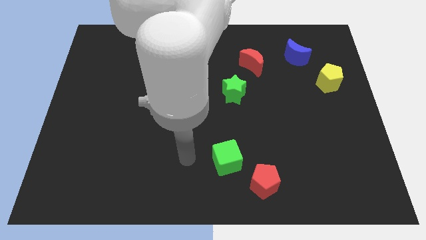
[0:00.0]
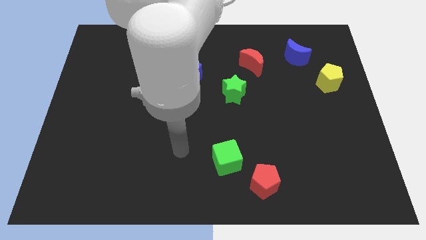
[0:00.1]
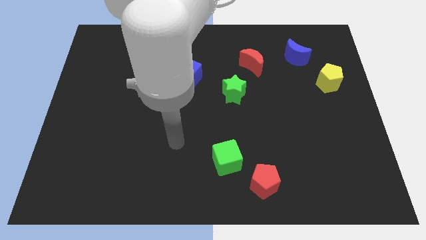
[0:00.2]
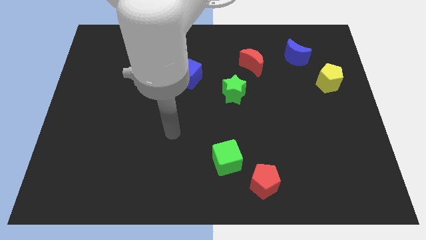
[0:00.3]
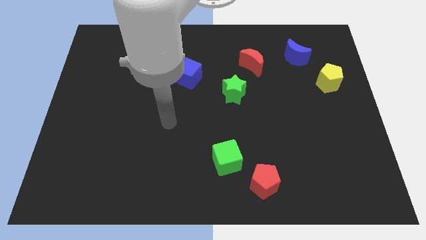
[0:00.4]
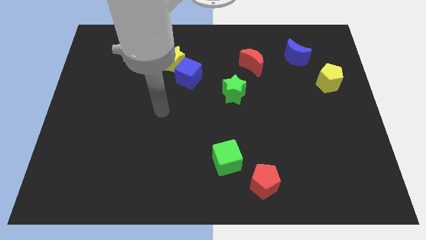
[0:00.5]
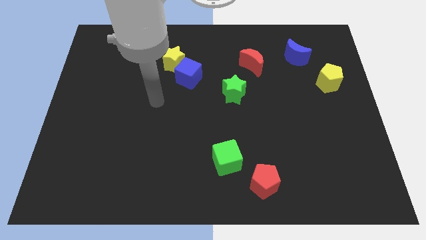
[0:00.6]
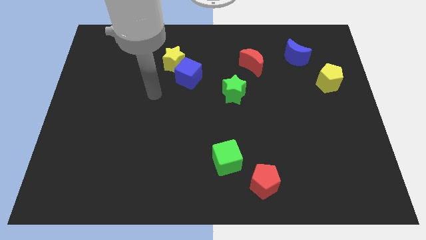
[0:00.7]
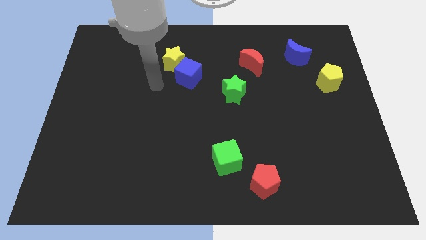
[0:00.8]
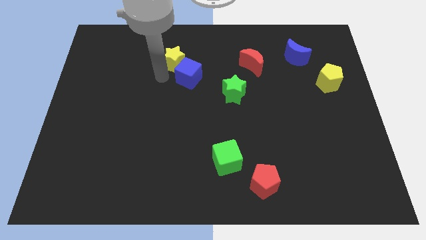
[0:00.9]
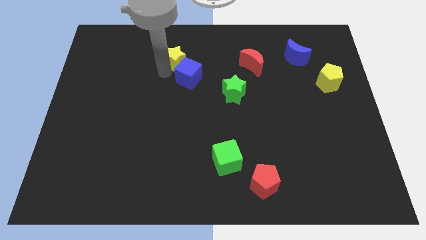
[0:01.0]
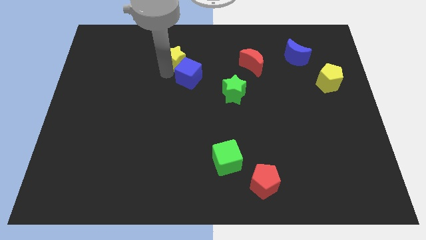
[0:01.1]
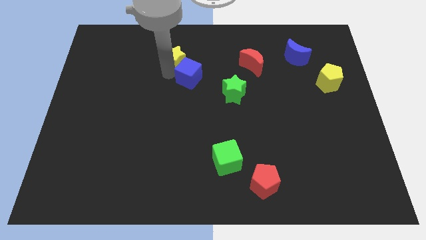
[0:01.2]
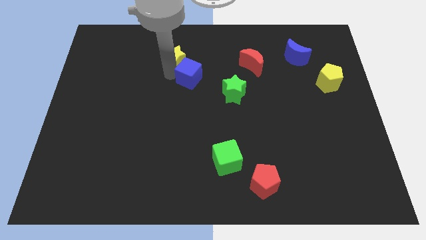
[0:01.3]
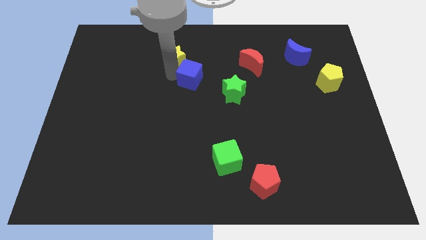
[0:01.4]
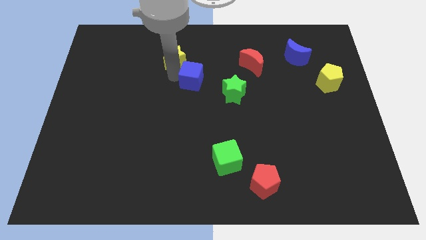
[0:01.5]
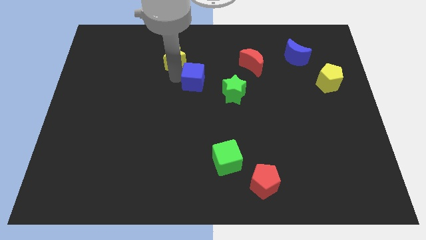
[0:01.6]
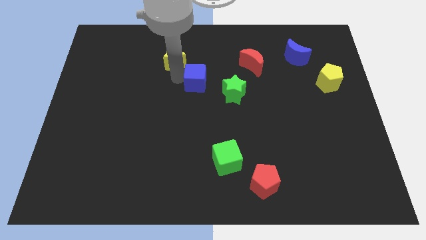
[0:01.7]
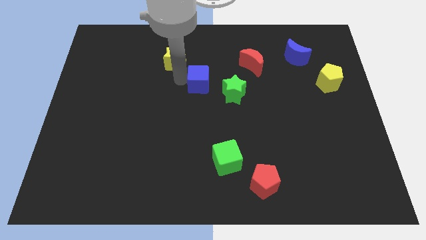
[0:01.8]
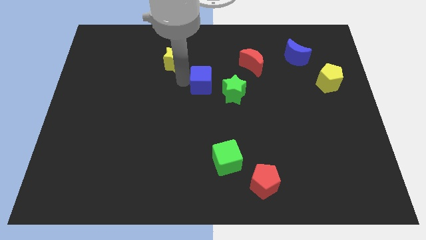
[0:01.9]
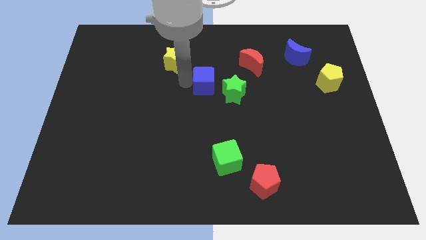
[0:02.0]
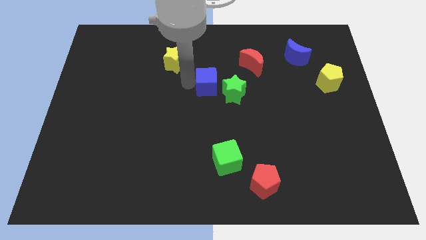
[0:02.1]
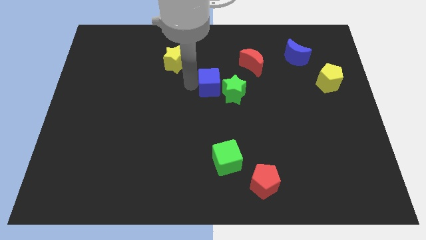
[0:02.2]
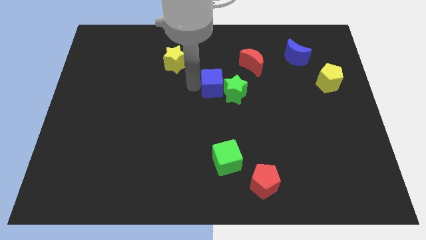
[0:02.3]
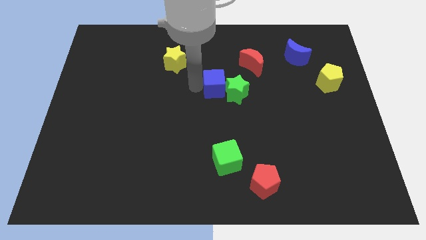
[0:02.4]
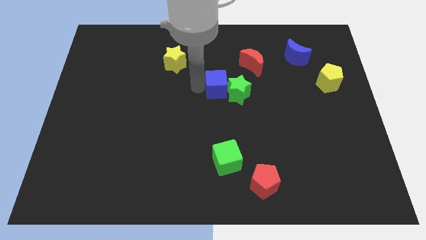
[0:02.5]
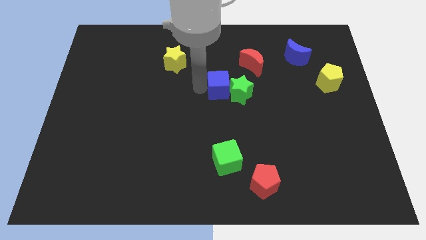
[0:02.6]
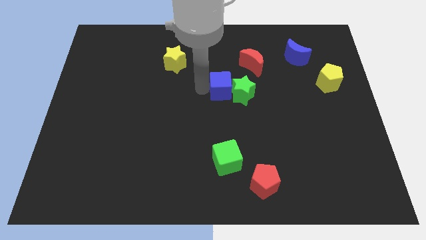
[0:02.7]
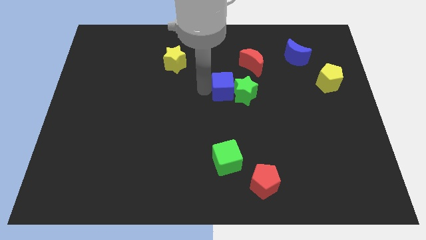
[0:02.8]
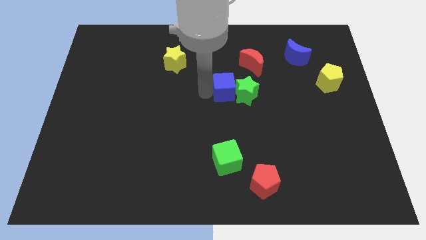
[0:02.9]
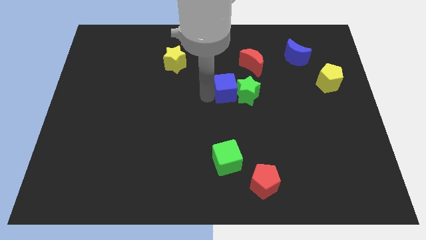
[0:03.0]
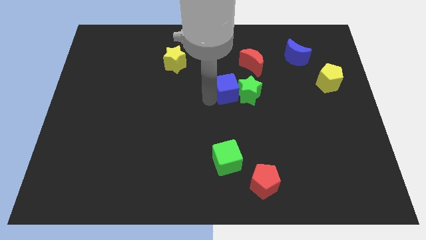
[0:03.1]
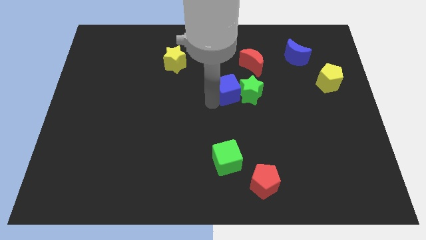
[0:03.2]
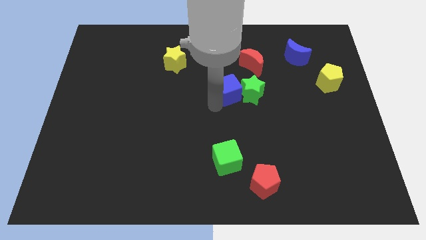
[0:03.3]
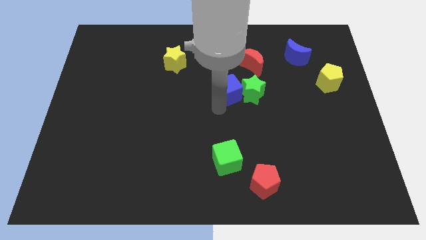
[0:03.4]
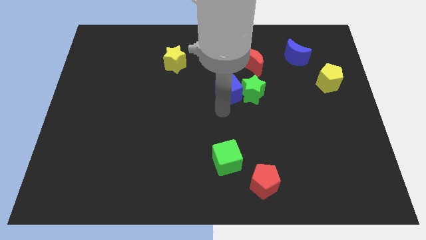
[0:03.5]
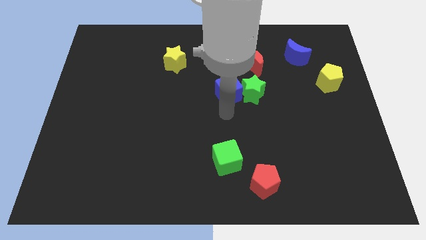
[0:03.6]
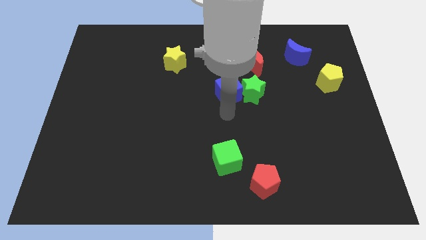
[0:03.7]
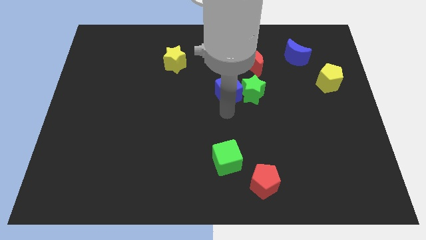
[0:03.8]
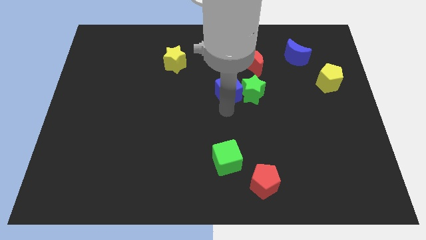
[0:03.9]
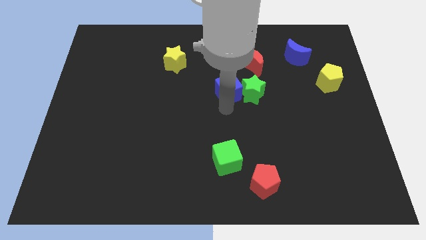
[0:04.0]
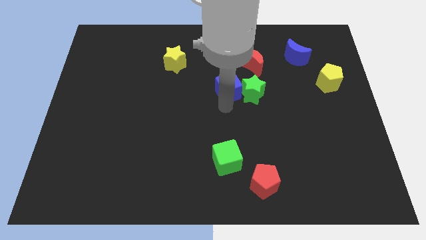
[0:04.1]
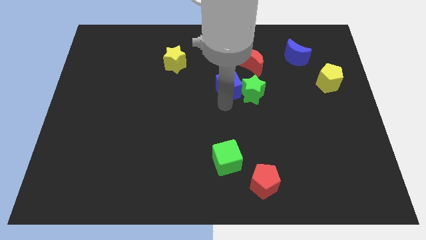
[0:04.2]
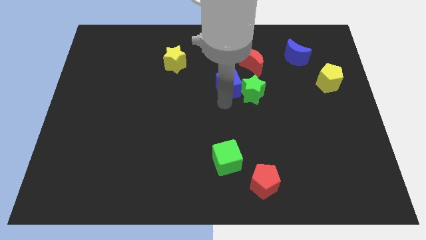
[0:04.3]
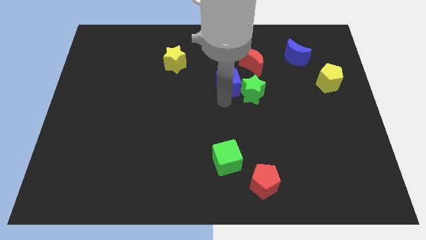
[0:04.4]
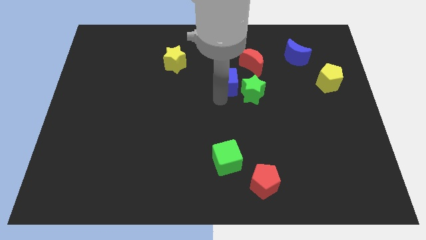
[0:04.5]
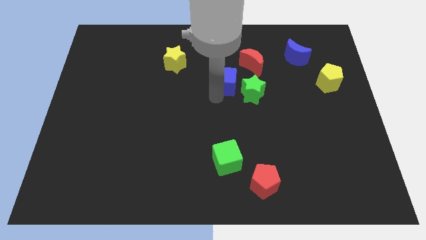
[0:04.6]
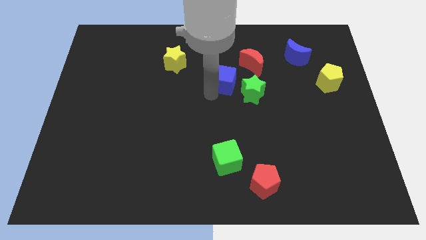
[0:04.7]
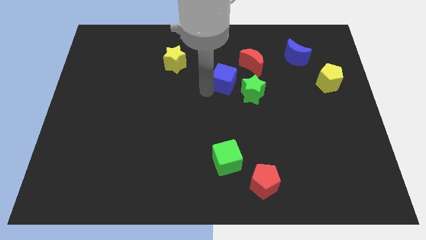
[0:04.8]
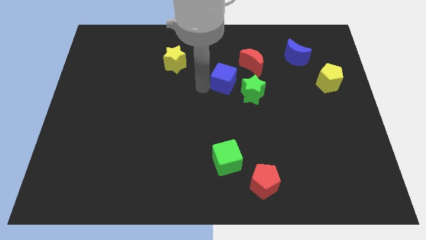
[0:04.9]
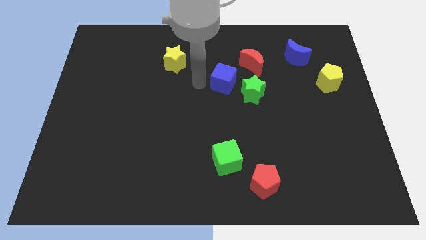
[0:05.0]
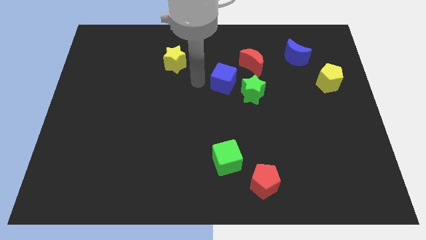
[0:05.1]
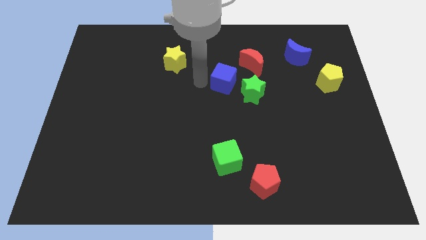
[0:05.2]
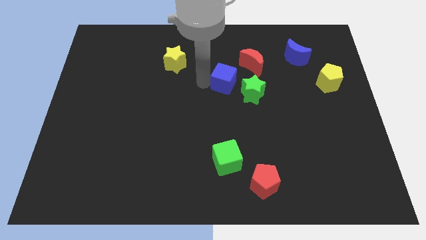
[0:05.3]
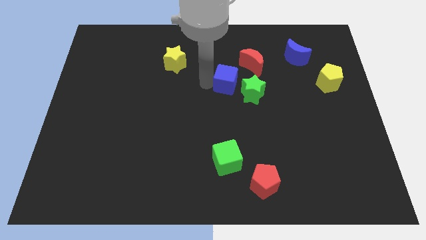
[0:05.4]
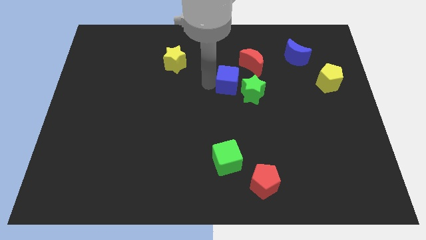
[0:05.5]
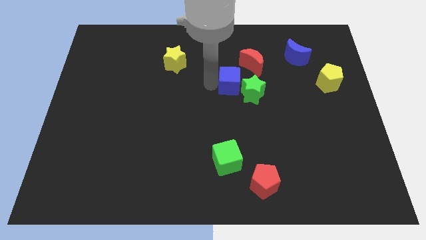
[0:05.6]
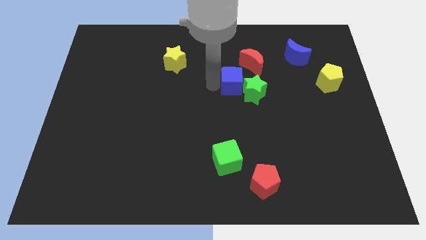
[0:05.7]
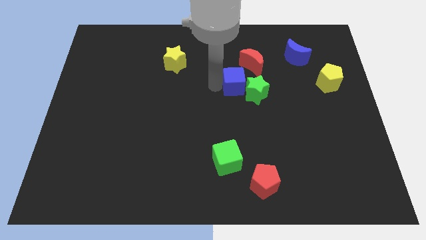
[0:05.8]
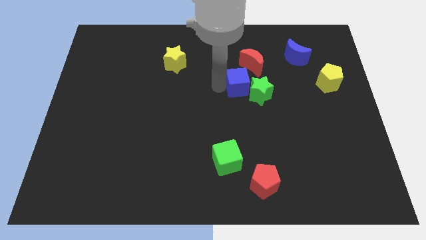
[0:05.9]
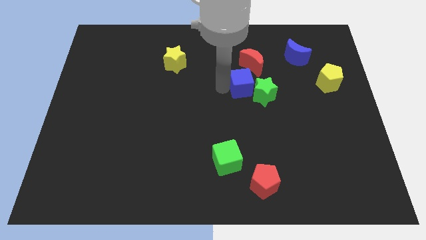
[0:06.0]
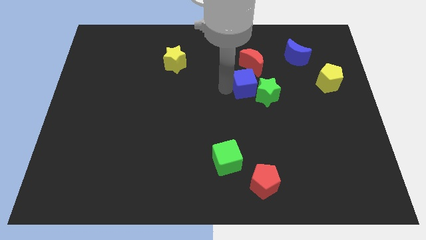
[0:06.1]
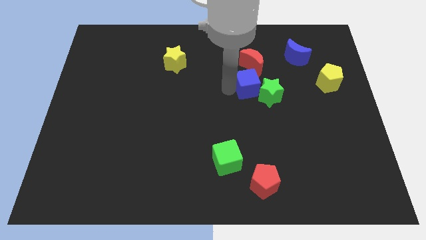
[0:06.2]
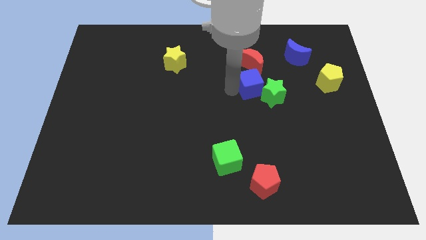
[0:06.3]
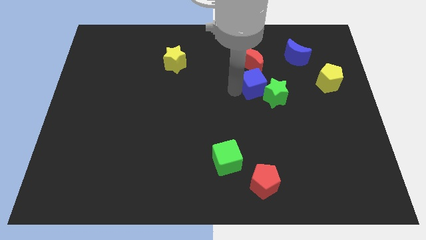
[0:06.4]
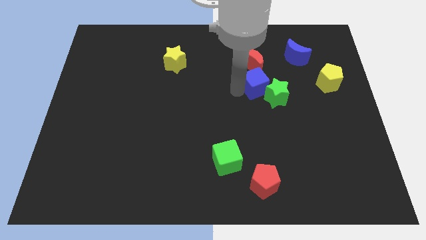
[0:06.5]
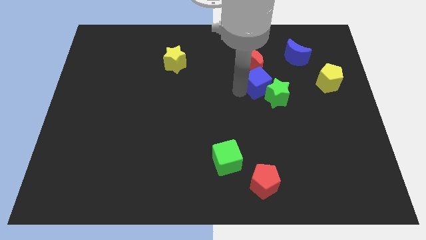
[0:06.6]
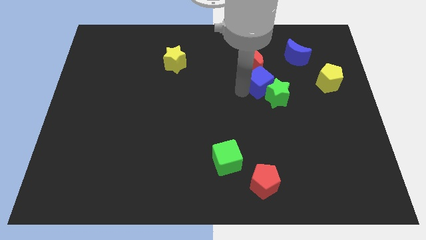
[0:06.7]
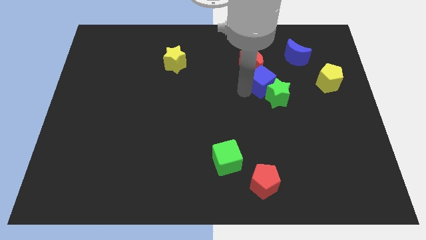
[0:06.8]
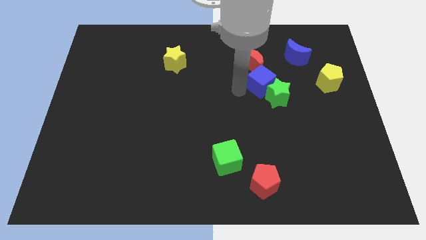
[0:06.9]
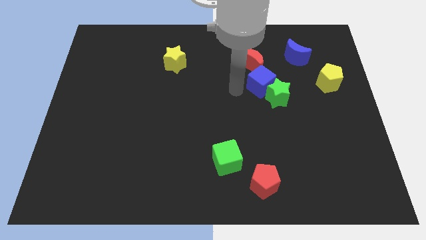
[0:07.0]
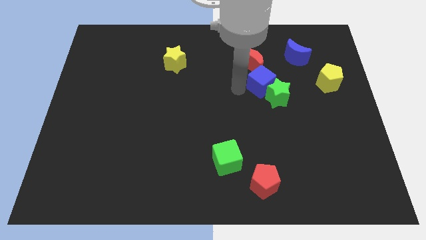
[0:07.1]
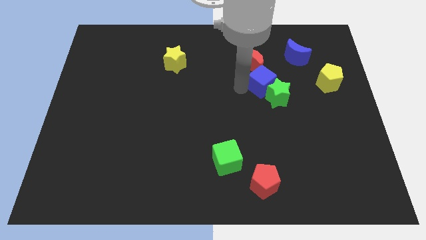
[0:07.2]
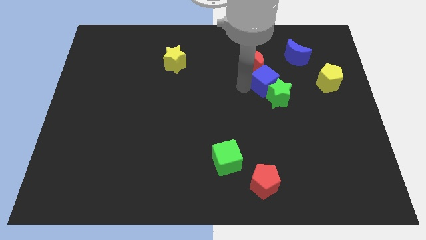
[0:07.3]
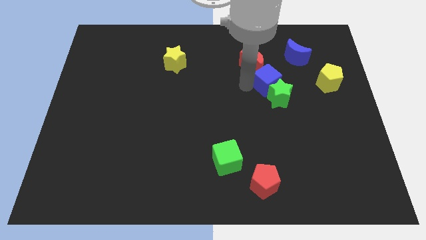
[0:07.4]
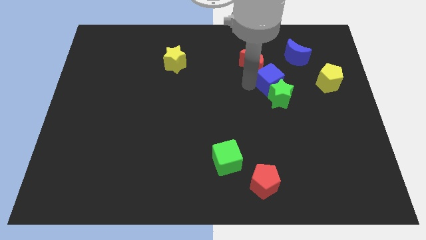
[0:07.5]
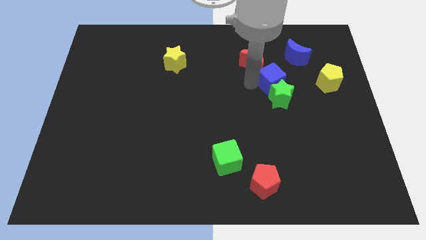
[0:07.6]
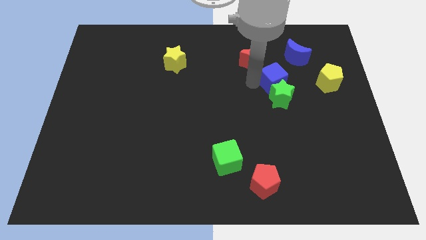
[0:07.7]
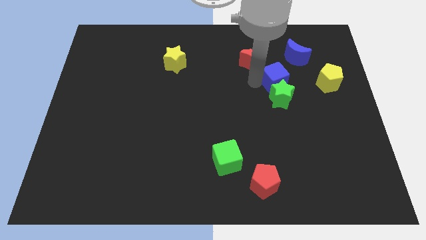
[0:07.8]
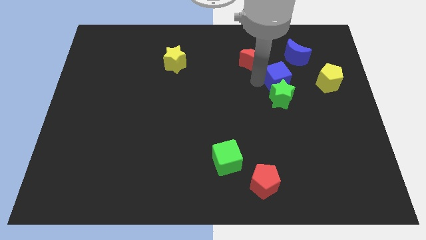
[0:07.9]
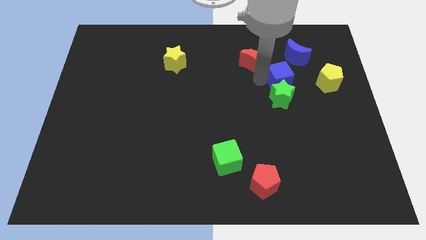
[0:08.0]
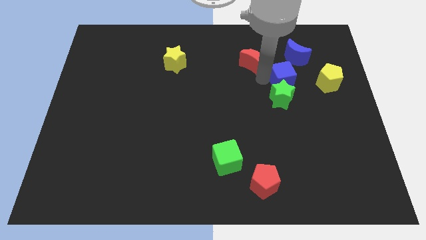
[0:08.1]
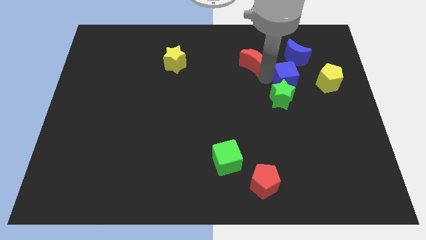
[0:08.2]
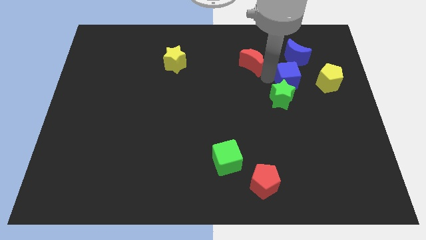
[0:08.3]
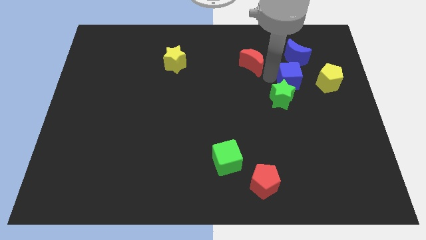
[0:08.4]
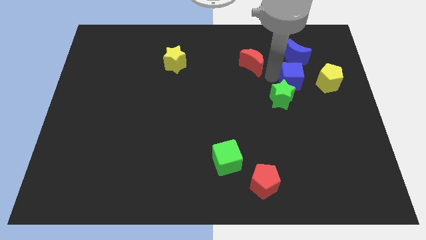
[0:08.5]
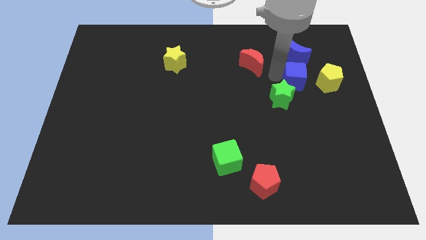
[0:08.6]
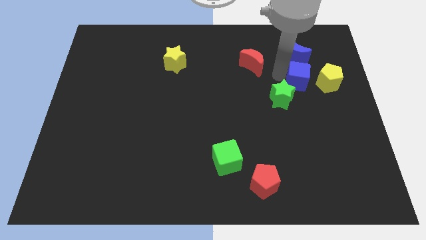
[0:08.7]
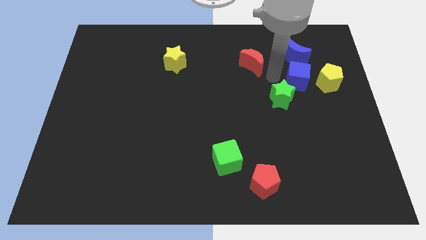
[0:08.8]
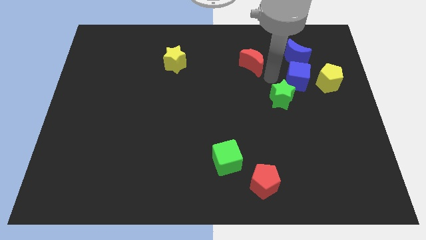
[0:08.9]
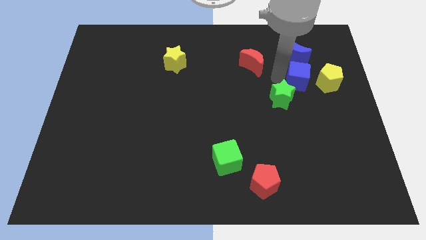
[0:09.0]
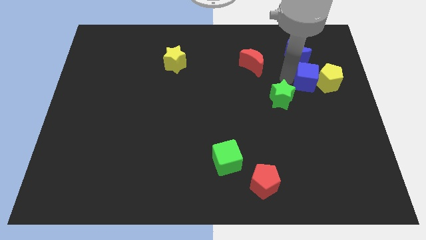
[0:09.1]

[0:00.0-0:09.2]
push the blue cube next to the yellow pentagon
